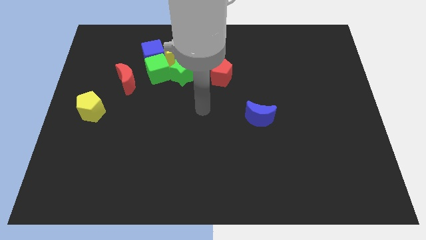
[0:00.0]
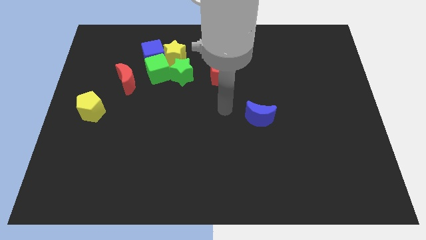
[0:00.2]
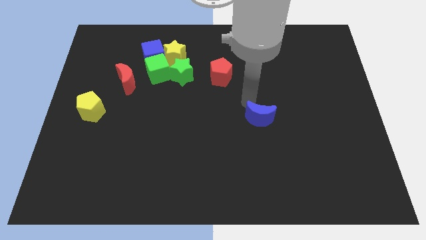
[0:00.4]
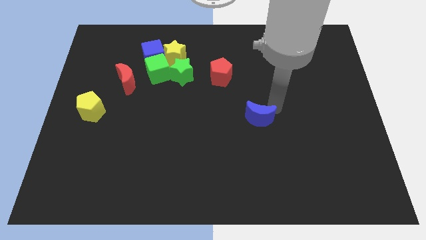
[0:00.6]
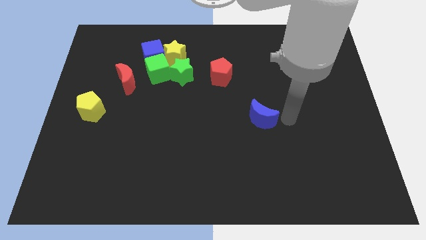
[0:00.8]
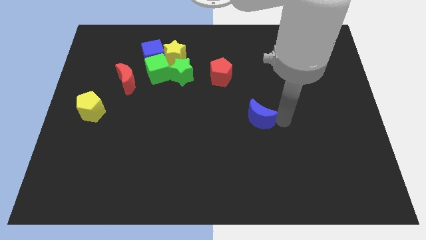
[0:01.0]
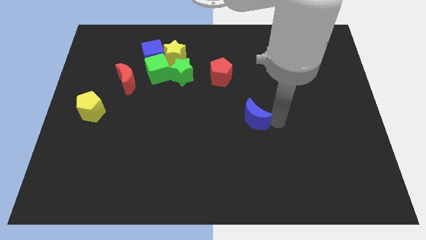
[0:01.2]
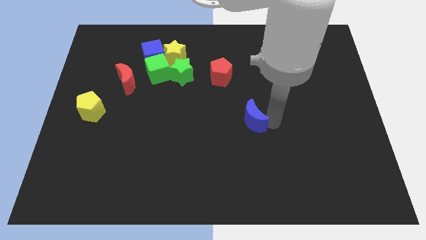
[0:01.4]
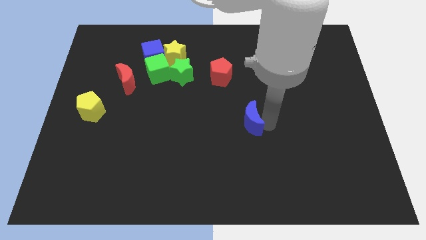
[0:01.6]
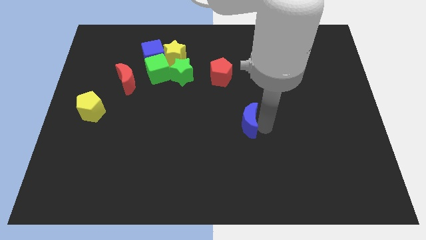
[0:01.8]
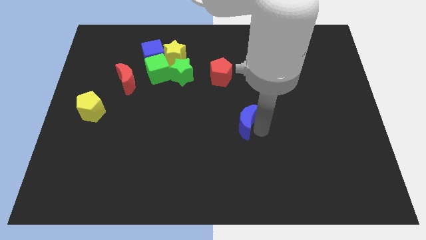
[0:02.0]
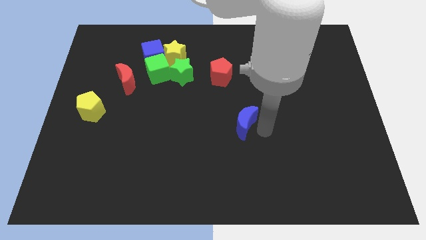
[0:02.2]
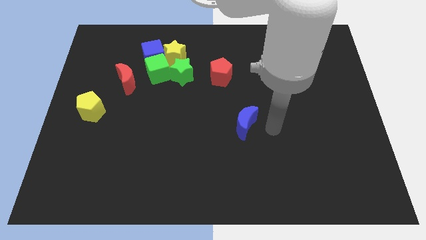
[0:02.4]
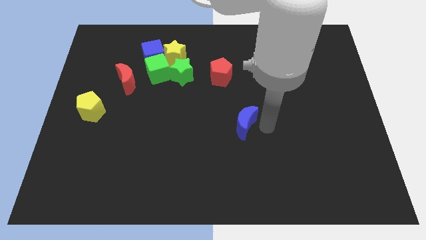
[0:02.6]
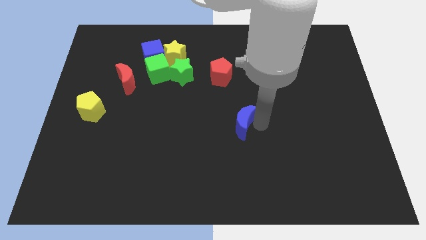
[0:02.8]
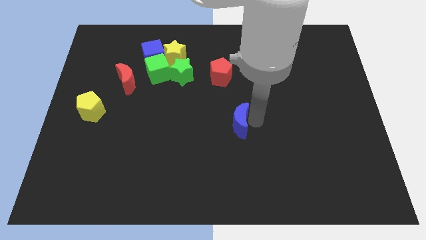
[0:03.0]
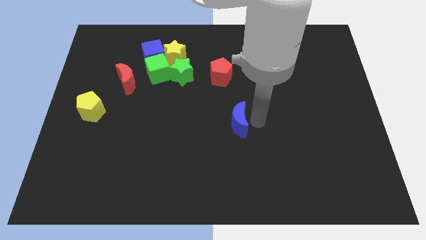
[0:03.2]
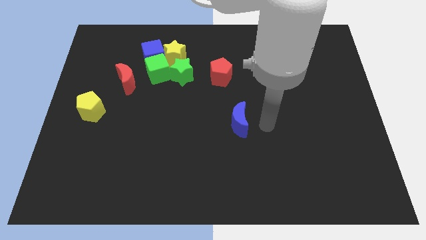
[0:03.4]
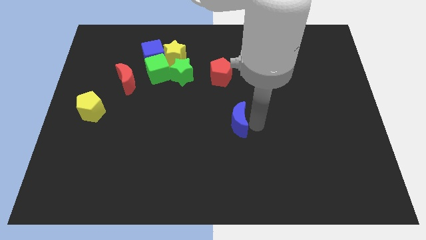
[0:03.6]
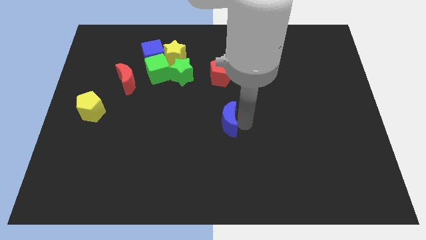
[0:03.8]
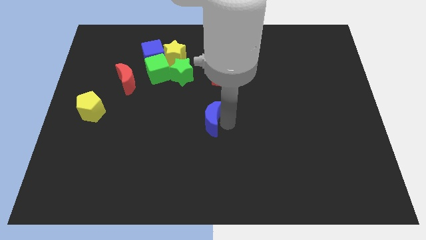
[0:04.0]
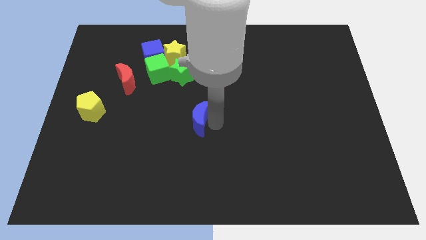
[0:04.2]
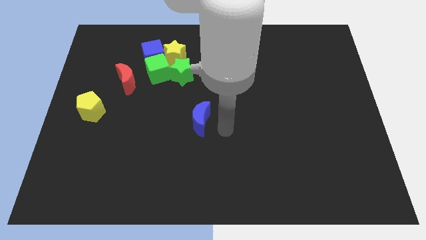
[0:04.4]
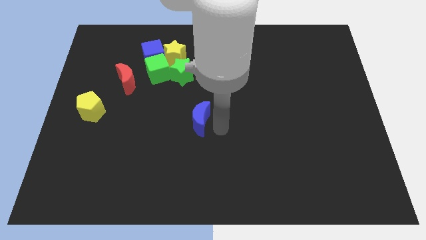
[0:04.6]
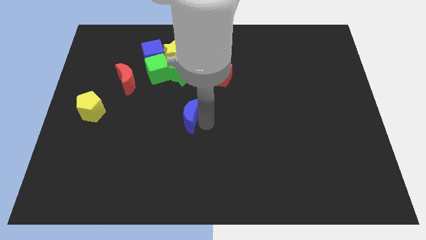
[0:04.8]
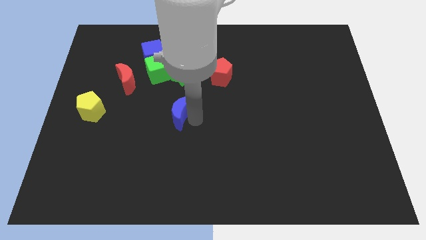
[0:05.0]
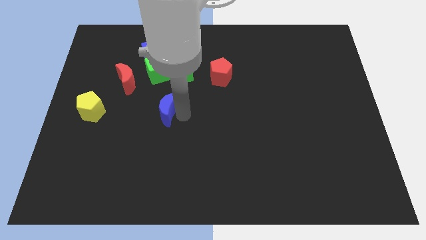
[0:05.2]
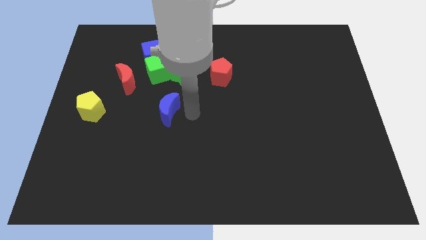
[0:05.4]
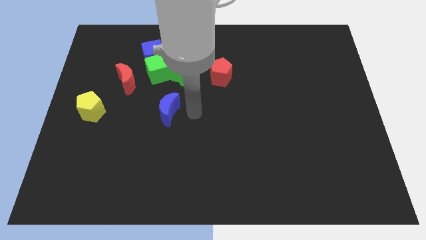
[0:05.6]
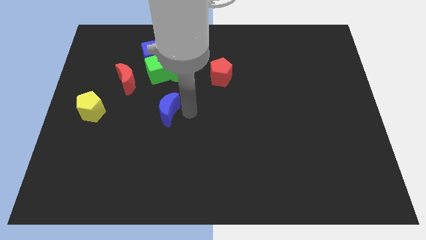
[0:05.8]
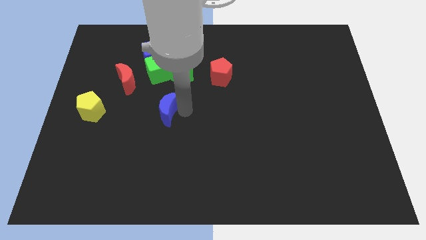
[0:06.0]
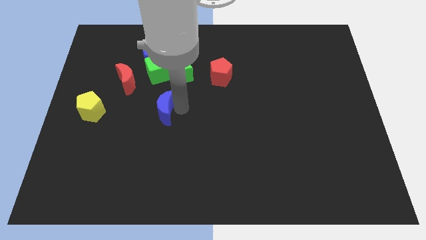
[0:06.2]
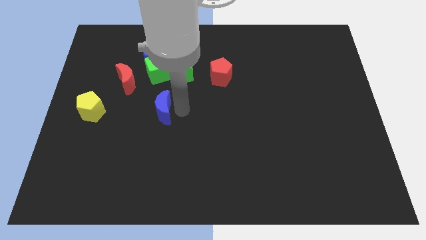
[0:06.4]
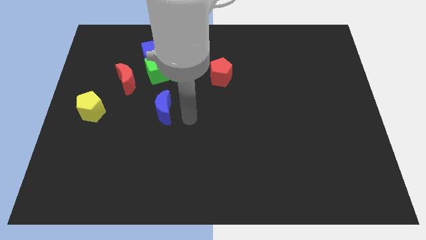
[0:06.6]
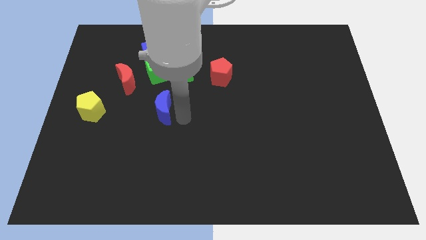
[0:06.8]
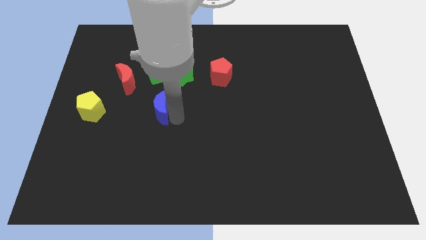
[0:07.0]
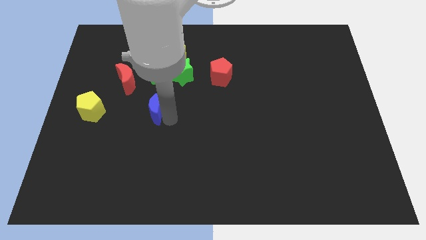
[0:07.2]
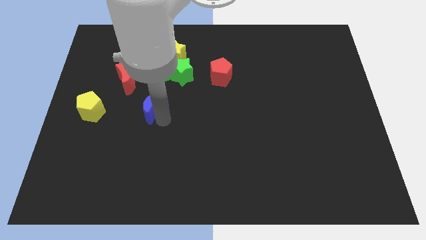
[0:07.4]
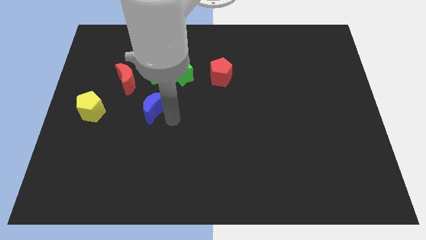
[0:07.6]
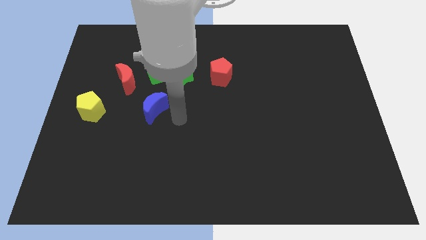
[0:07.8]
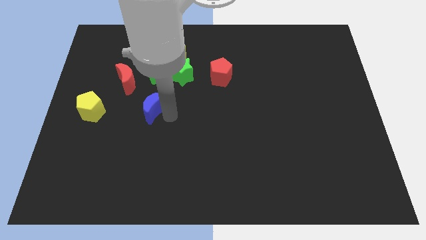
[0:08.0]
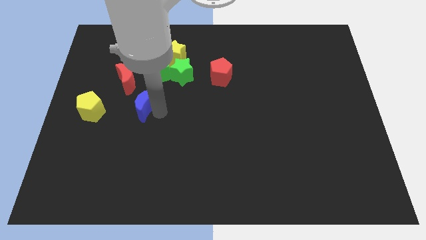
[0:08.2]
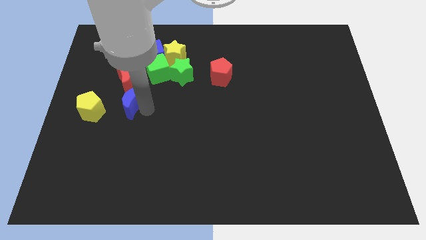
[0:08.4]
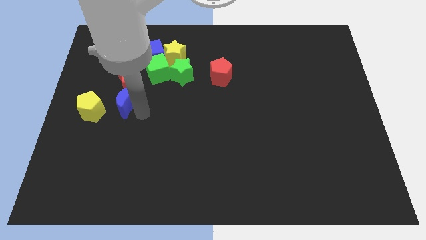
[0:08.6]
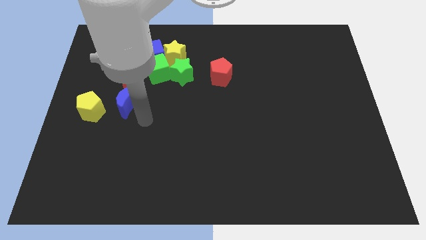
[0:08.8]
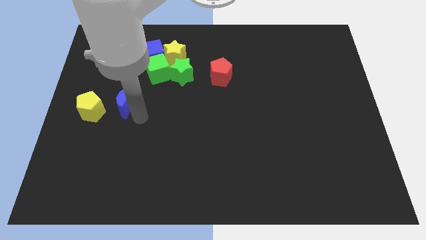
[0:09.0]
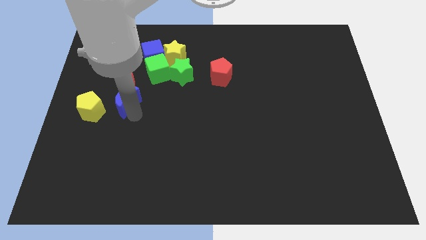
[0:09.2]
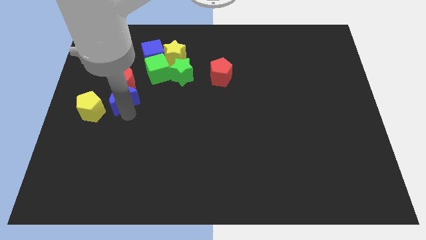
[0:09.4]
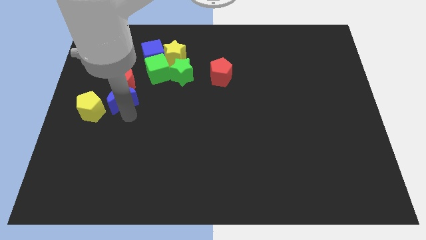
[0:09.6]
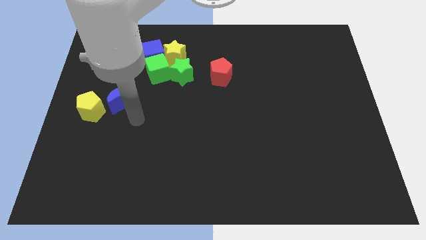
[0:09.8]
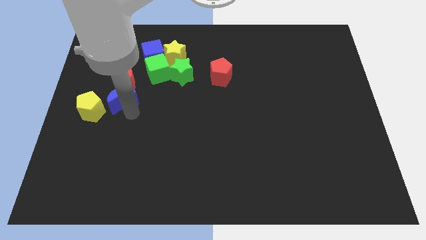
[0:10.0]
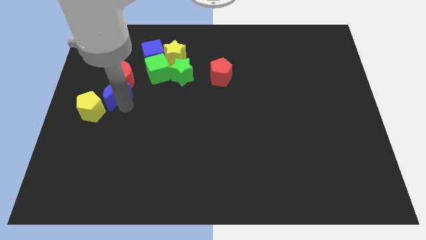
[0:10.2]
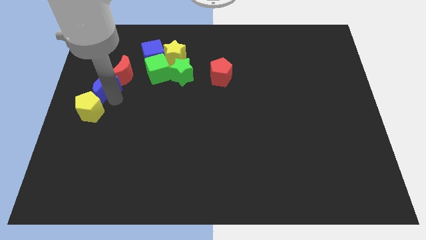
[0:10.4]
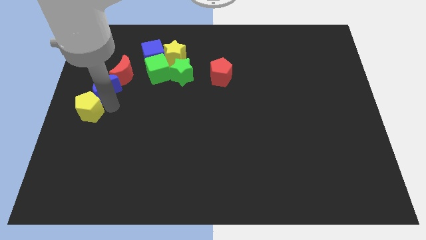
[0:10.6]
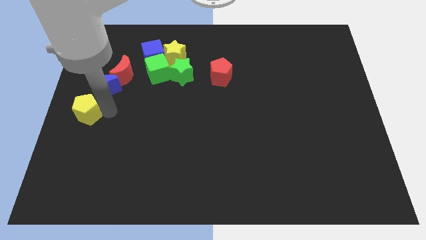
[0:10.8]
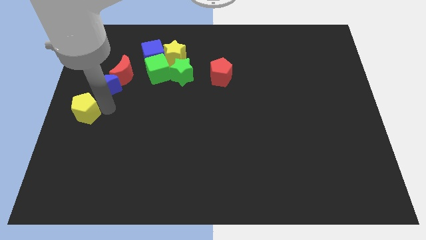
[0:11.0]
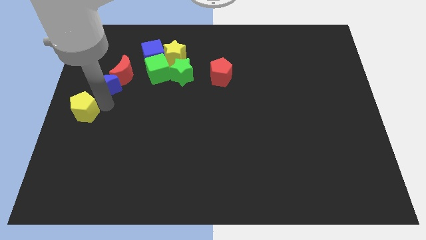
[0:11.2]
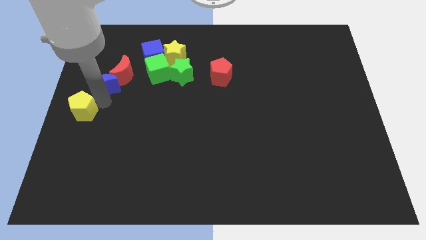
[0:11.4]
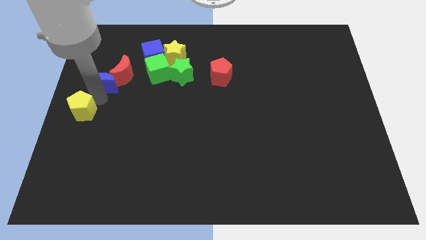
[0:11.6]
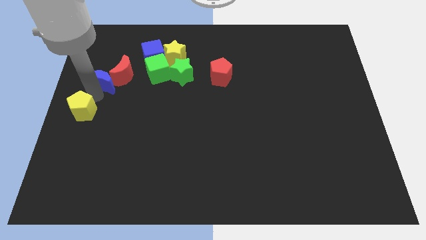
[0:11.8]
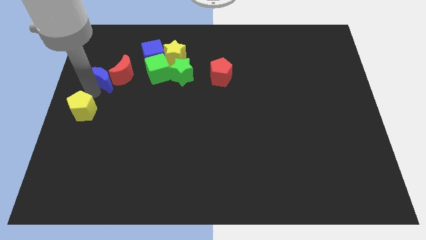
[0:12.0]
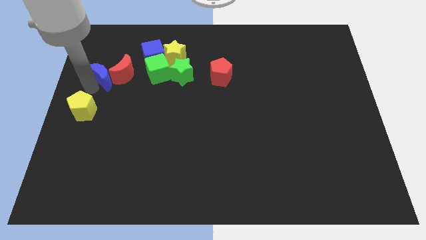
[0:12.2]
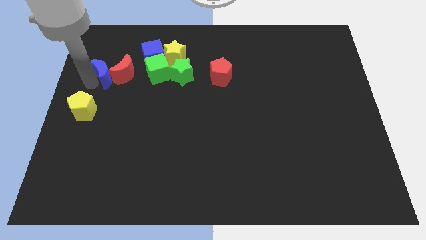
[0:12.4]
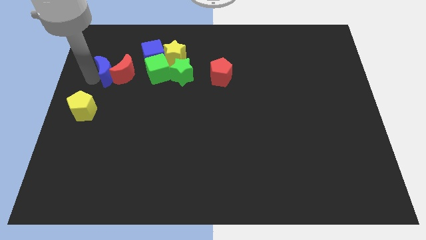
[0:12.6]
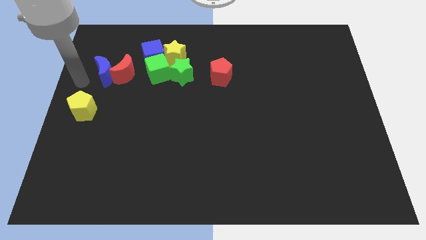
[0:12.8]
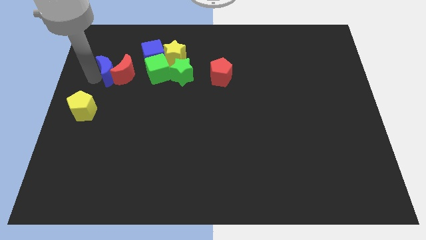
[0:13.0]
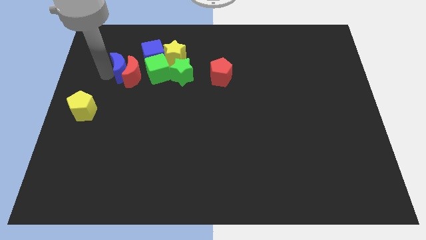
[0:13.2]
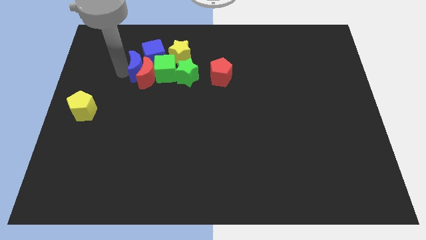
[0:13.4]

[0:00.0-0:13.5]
move the blue moon to the blue cube
